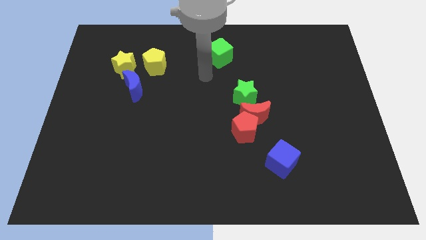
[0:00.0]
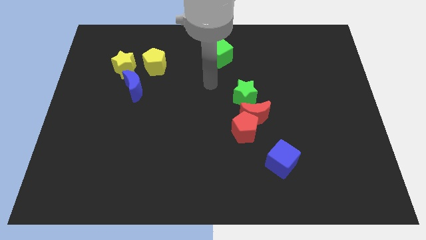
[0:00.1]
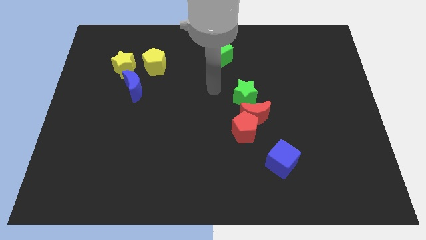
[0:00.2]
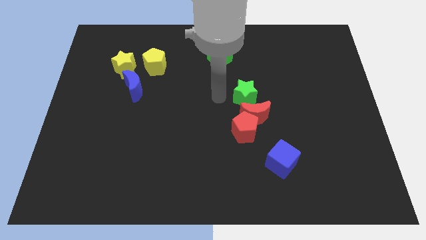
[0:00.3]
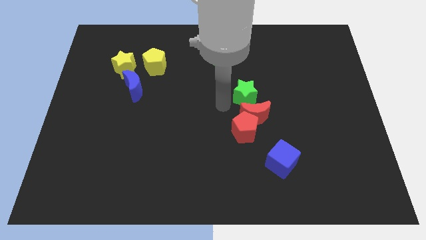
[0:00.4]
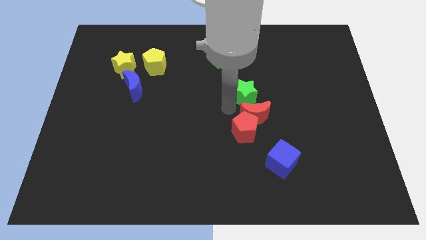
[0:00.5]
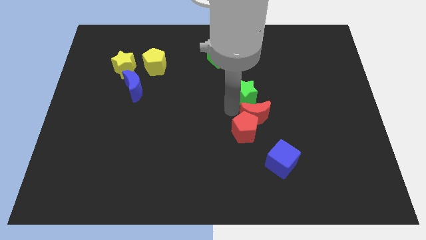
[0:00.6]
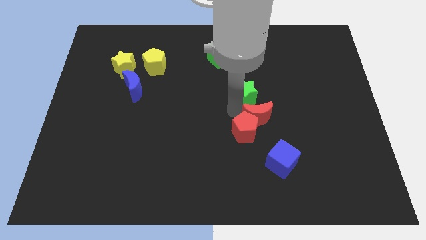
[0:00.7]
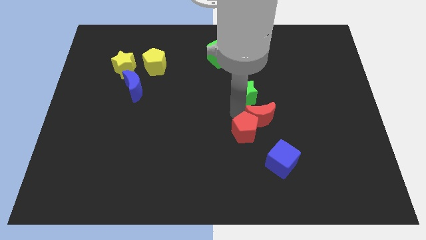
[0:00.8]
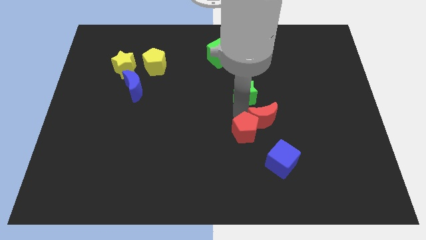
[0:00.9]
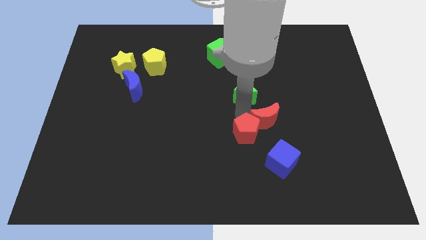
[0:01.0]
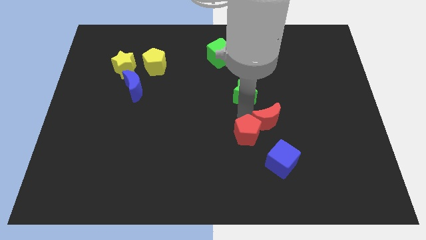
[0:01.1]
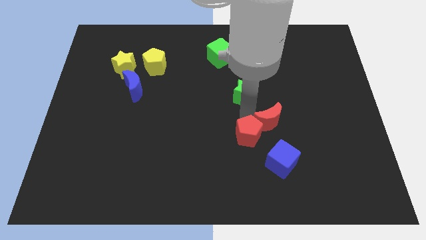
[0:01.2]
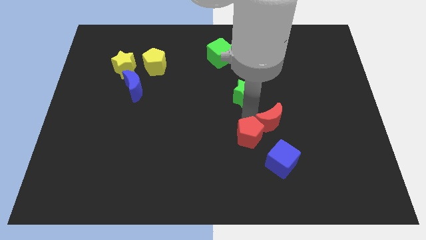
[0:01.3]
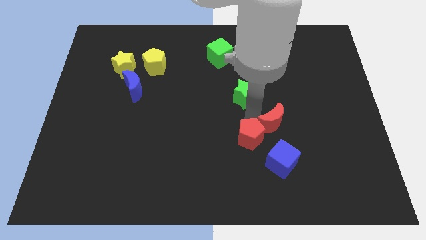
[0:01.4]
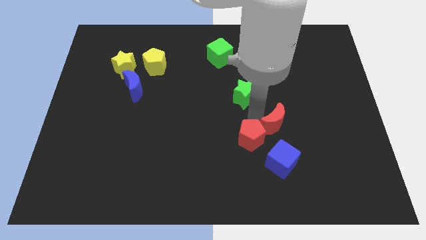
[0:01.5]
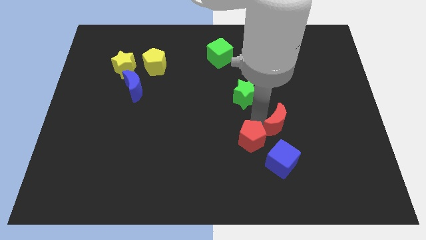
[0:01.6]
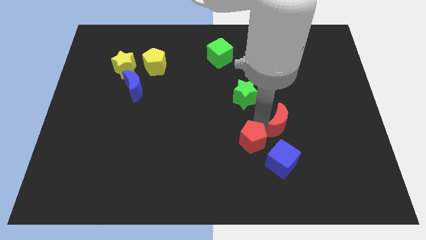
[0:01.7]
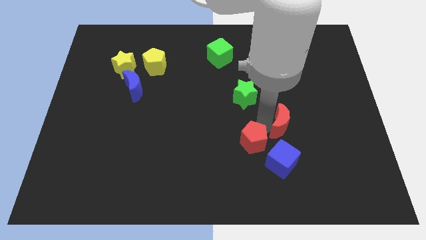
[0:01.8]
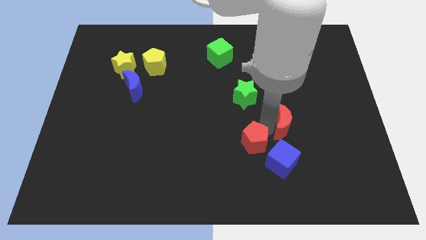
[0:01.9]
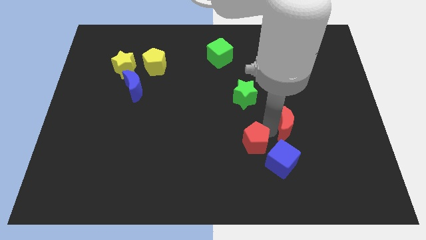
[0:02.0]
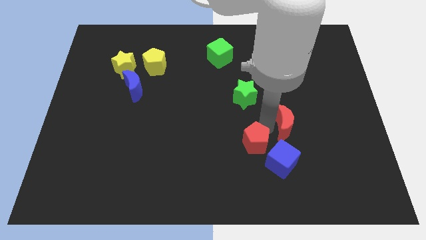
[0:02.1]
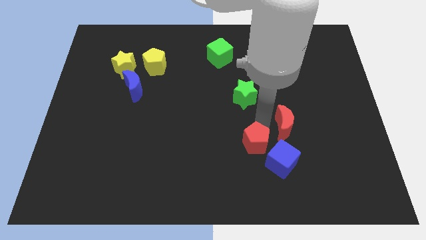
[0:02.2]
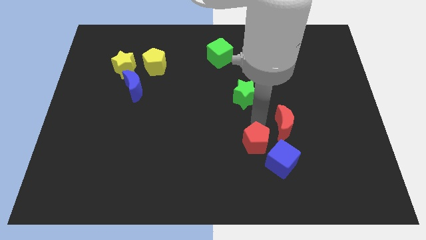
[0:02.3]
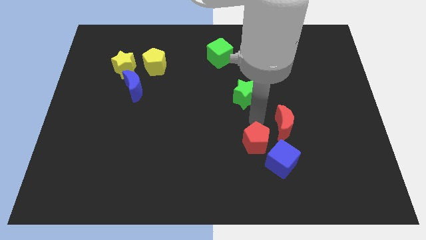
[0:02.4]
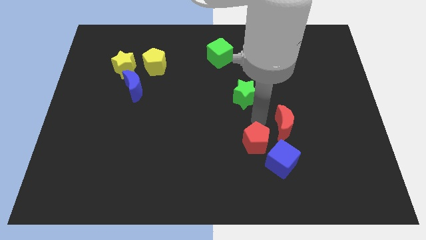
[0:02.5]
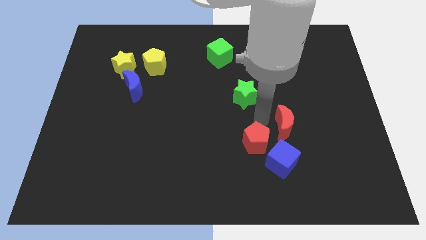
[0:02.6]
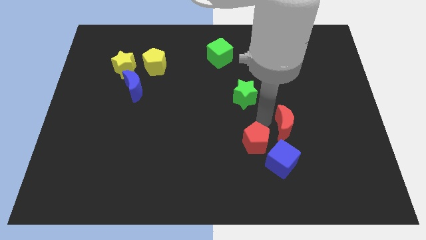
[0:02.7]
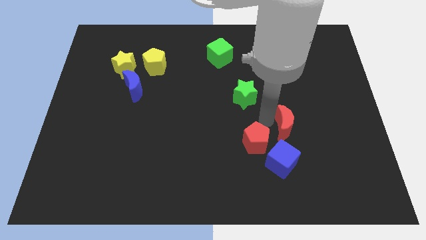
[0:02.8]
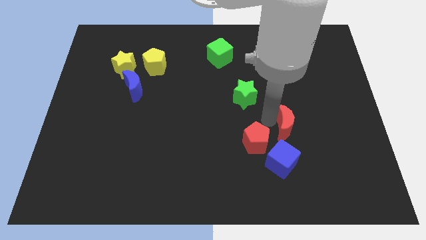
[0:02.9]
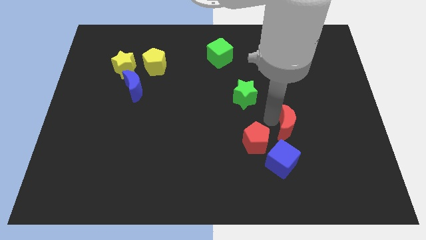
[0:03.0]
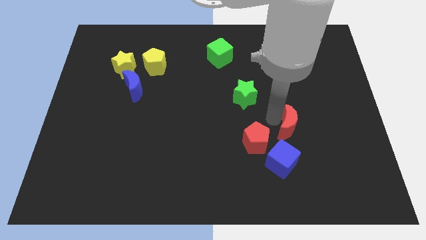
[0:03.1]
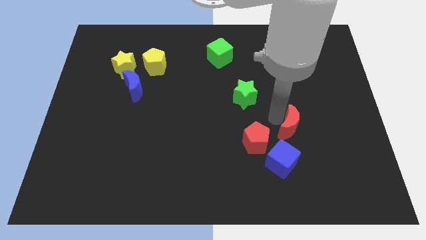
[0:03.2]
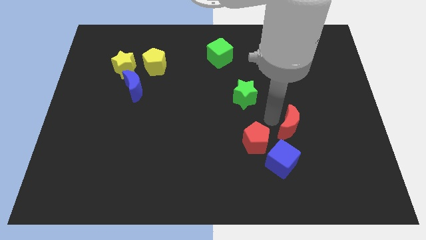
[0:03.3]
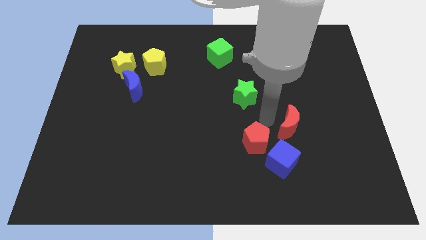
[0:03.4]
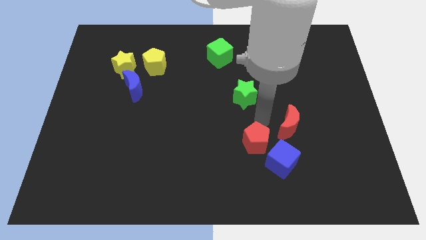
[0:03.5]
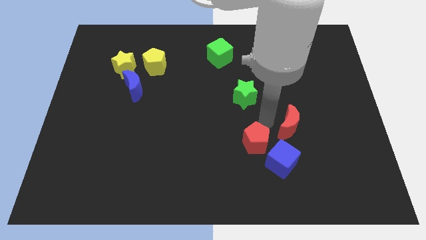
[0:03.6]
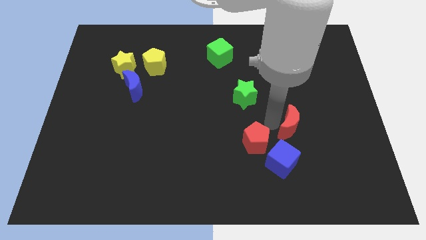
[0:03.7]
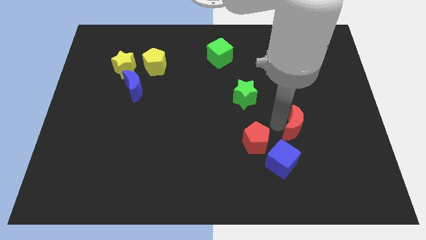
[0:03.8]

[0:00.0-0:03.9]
pull the red moon apart from the red pentagon and green star

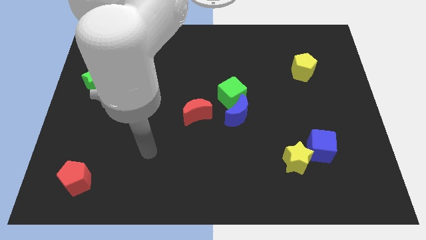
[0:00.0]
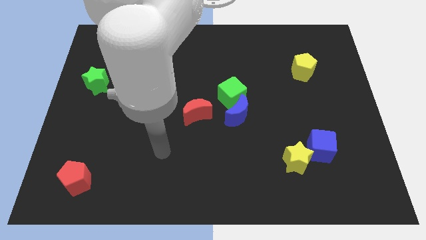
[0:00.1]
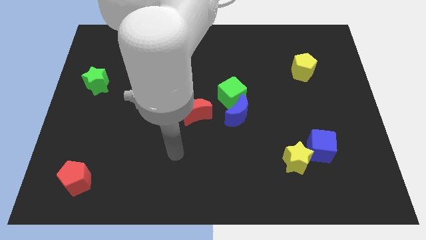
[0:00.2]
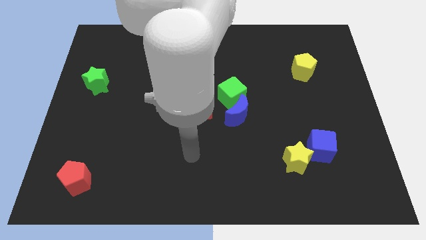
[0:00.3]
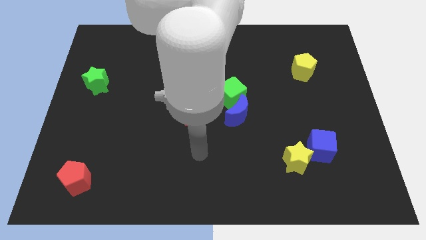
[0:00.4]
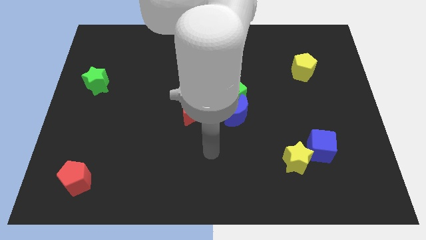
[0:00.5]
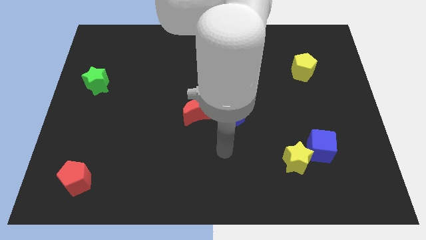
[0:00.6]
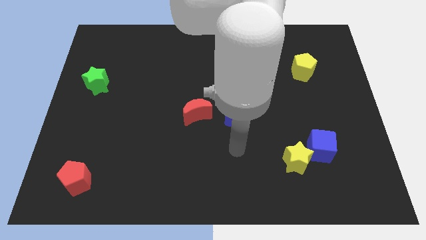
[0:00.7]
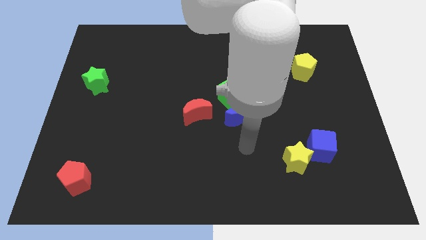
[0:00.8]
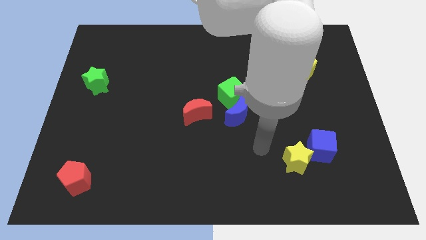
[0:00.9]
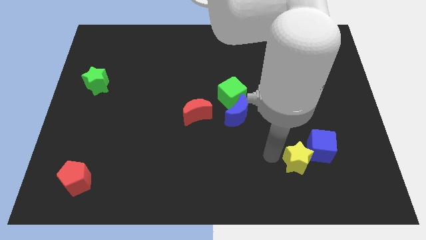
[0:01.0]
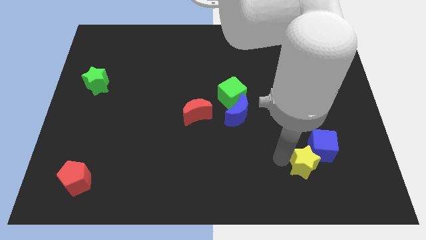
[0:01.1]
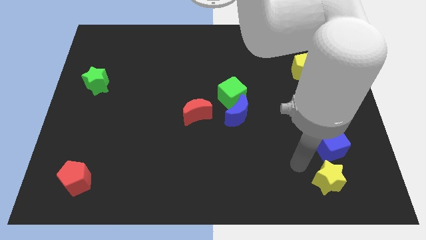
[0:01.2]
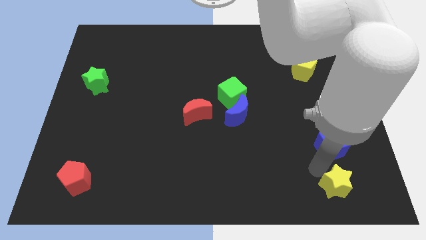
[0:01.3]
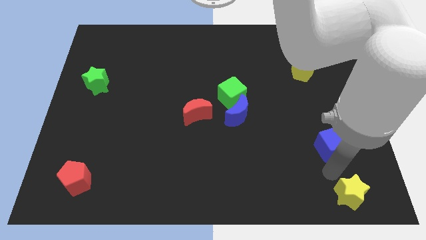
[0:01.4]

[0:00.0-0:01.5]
pull the blue cube apart from the yellow star

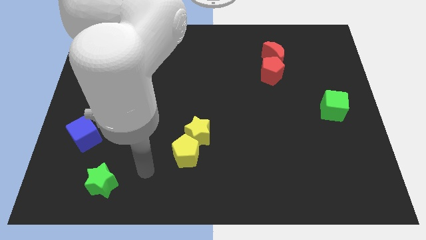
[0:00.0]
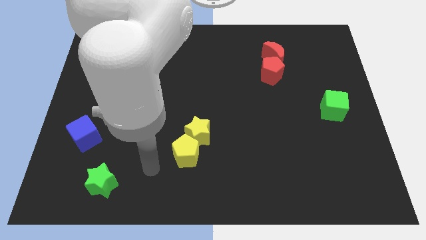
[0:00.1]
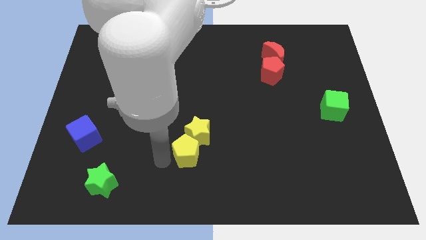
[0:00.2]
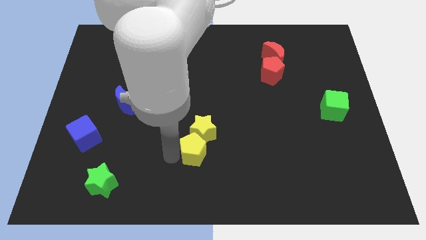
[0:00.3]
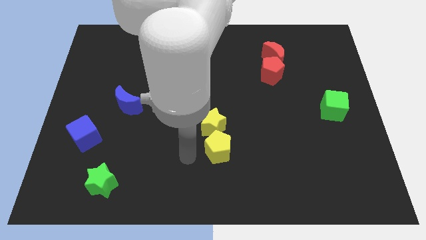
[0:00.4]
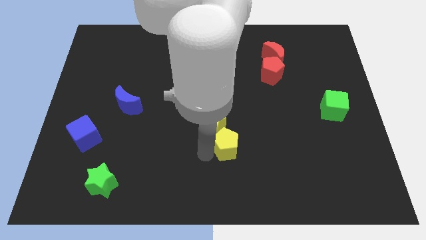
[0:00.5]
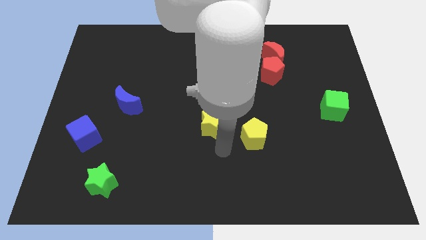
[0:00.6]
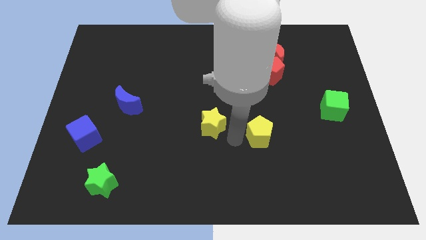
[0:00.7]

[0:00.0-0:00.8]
pull the yellow star apart from the yellow pentagon

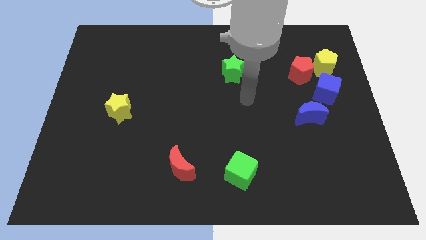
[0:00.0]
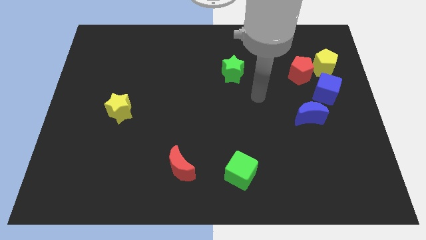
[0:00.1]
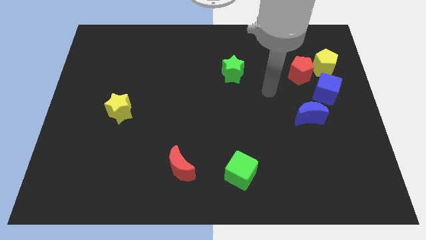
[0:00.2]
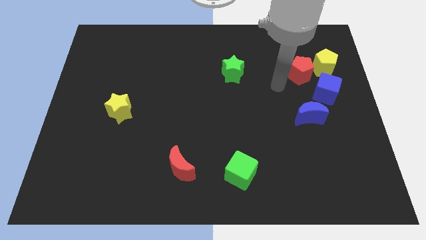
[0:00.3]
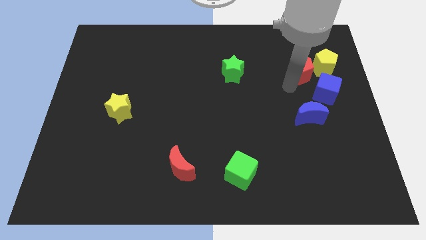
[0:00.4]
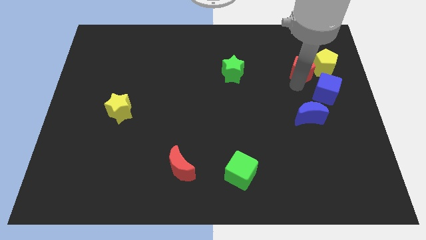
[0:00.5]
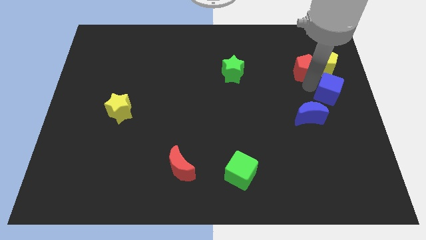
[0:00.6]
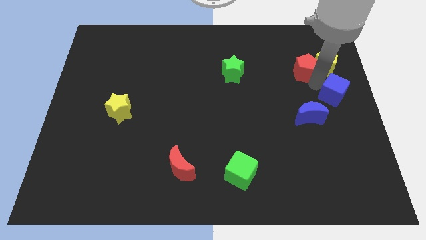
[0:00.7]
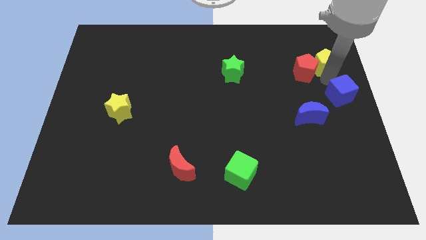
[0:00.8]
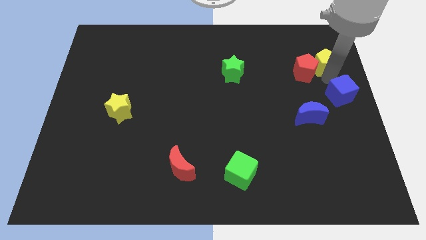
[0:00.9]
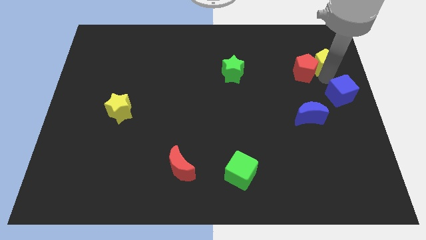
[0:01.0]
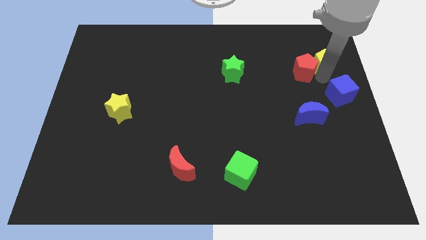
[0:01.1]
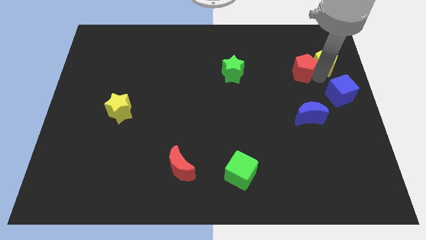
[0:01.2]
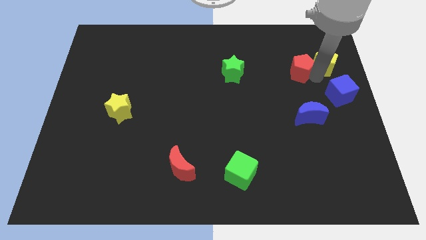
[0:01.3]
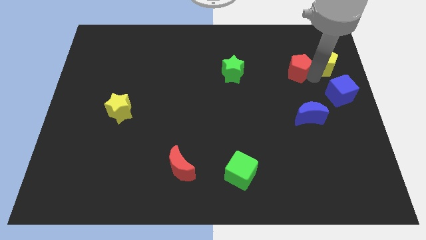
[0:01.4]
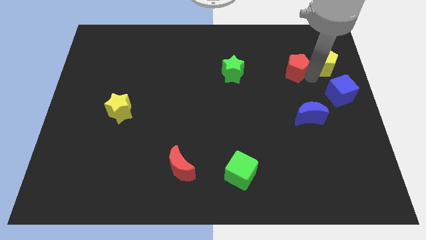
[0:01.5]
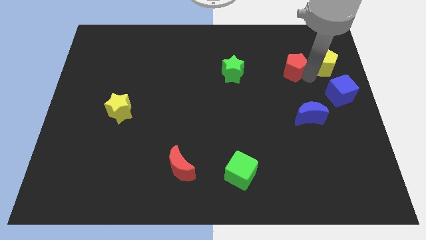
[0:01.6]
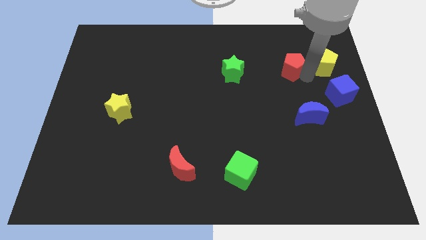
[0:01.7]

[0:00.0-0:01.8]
separate the red pentagon from the yellow pentagon and blue cube

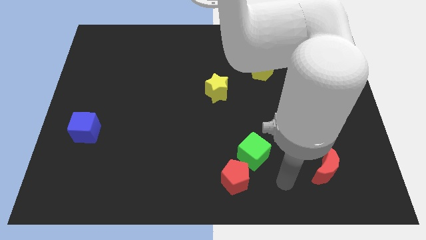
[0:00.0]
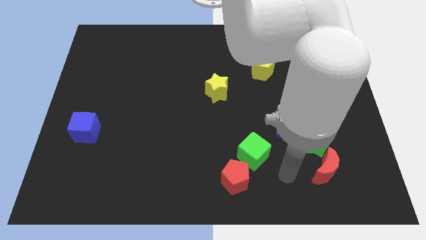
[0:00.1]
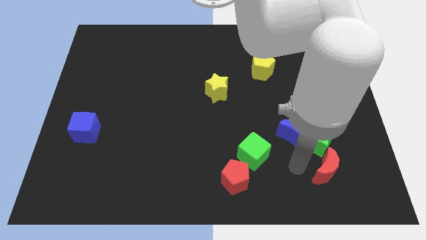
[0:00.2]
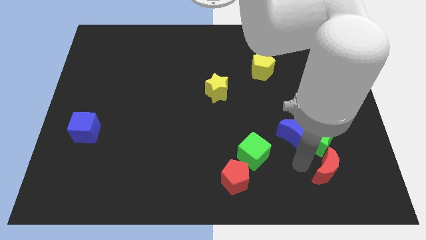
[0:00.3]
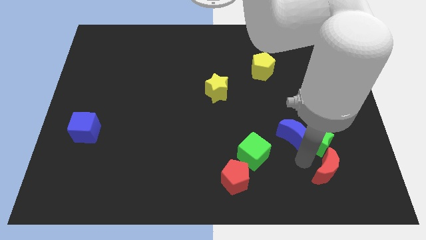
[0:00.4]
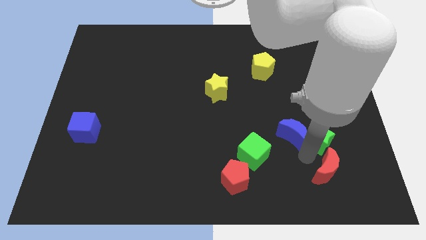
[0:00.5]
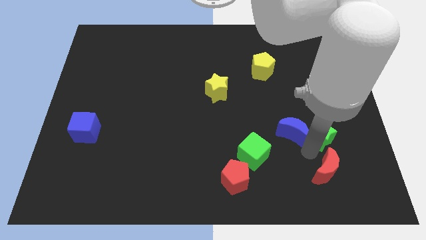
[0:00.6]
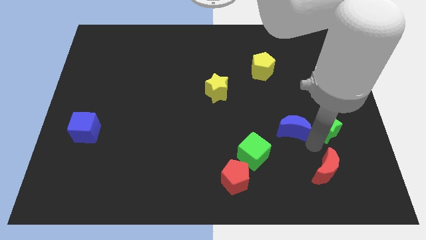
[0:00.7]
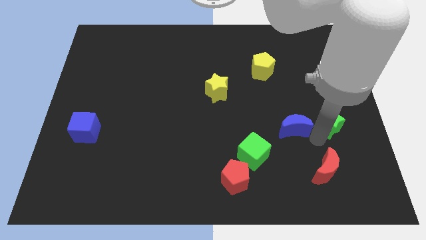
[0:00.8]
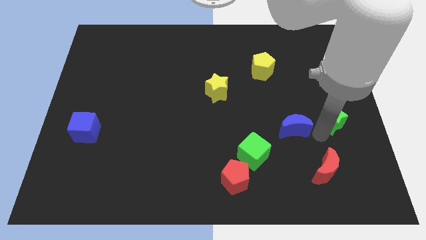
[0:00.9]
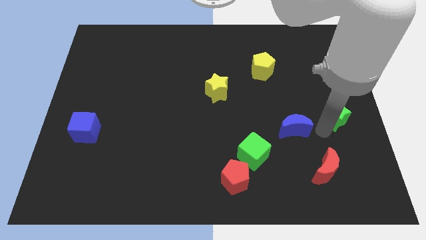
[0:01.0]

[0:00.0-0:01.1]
pull the green star apart from the blue moon and red moon

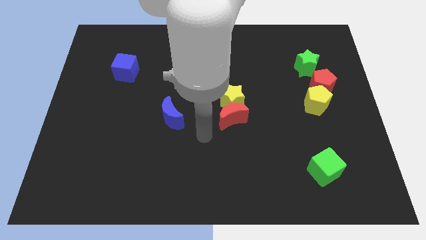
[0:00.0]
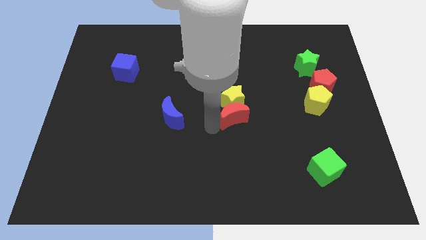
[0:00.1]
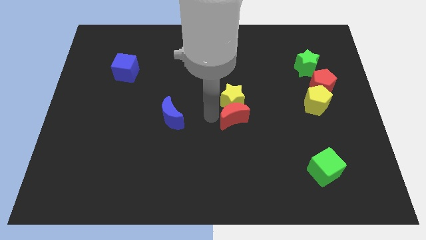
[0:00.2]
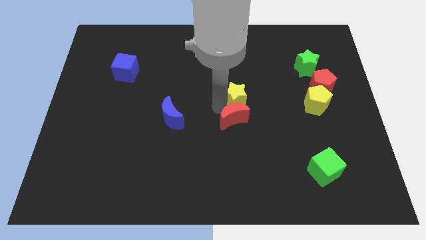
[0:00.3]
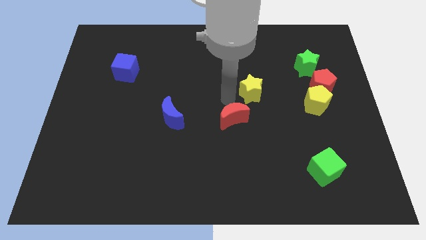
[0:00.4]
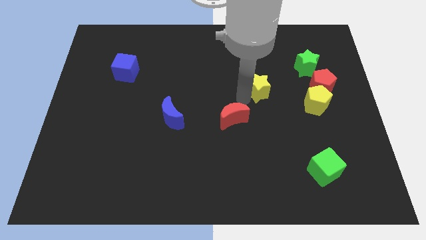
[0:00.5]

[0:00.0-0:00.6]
move the red moon away from the yellow star
